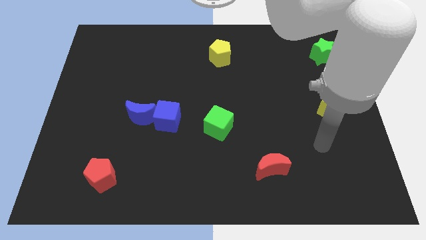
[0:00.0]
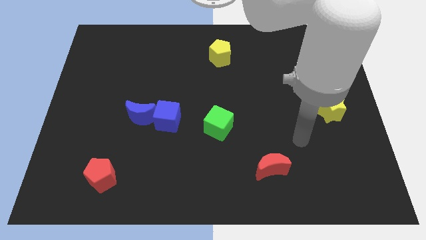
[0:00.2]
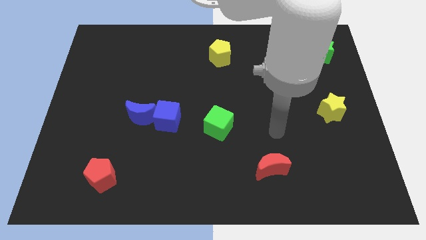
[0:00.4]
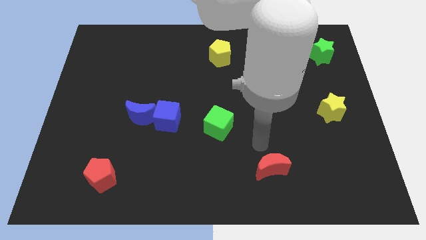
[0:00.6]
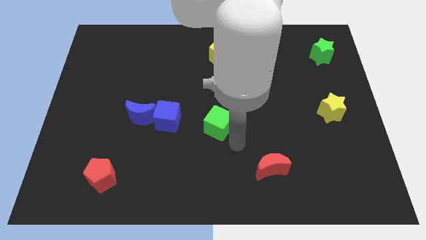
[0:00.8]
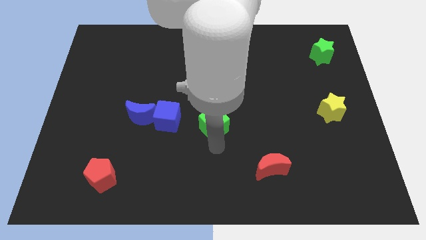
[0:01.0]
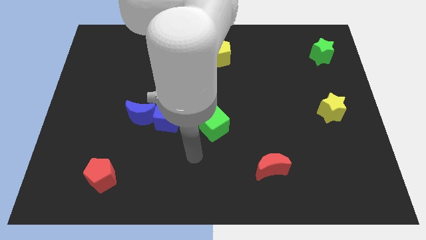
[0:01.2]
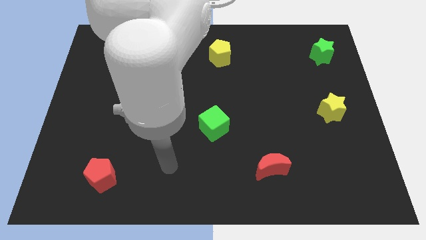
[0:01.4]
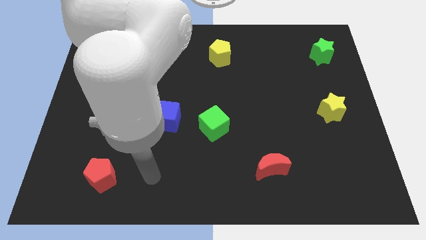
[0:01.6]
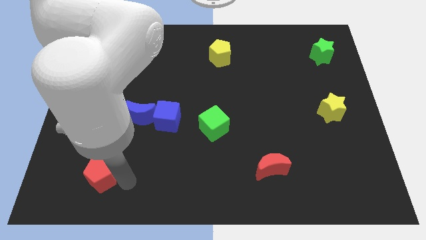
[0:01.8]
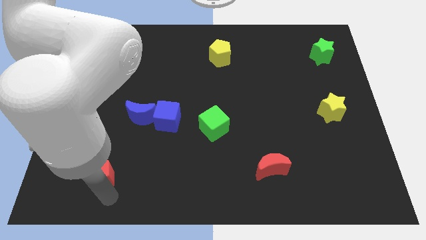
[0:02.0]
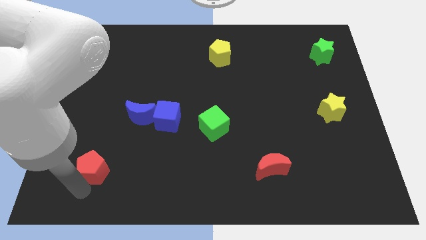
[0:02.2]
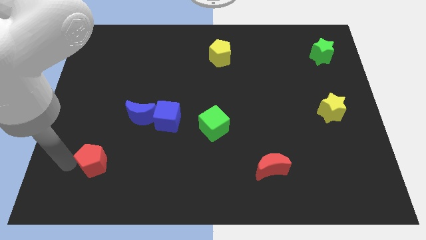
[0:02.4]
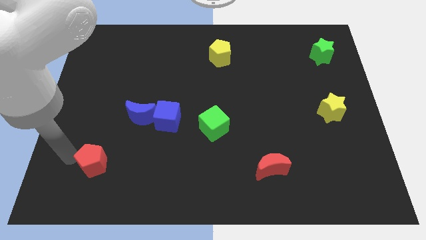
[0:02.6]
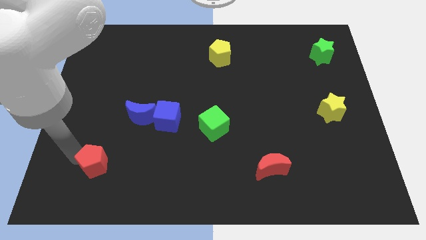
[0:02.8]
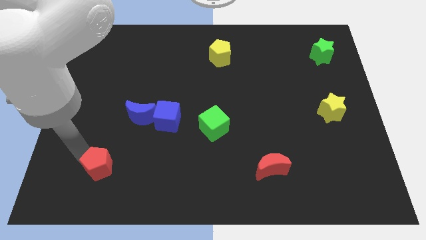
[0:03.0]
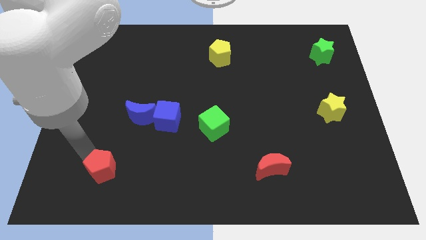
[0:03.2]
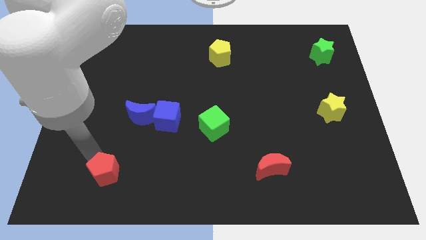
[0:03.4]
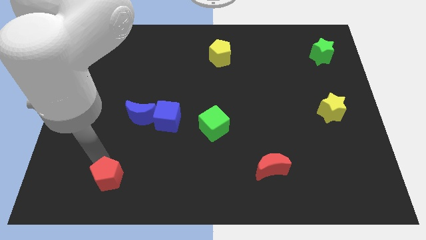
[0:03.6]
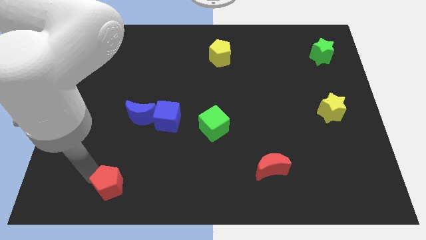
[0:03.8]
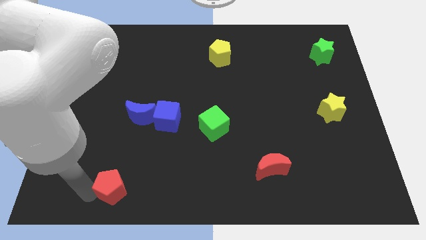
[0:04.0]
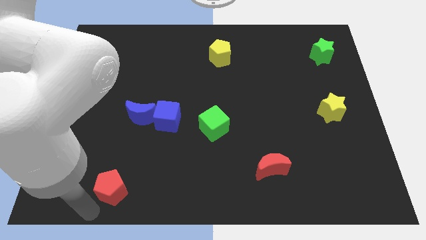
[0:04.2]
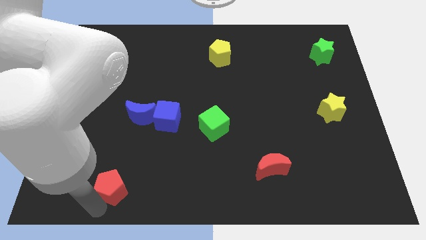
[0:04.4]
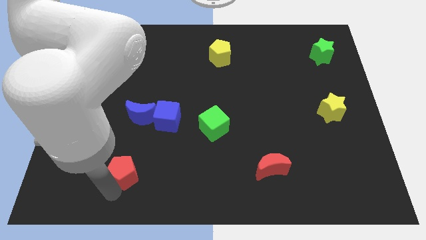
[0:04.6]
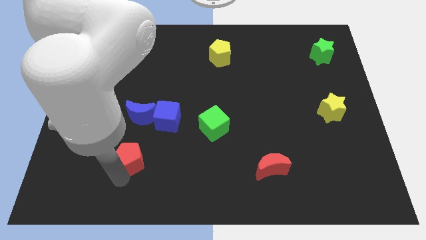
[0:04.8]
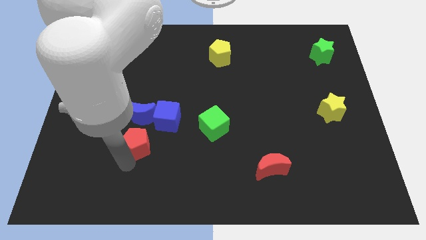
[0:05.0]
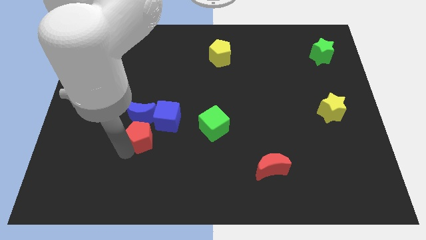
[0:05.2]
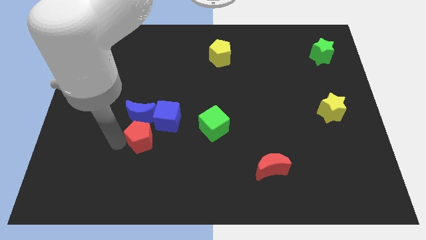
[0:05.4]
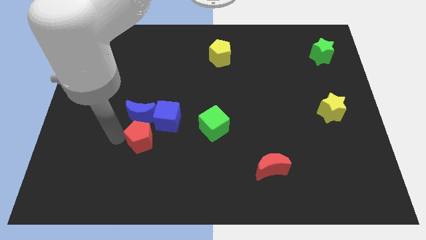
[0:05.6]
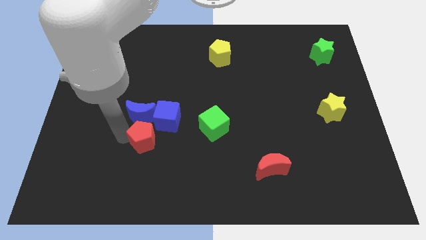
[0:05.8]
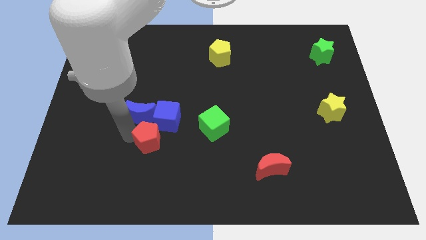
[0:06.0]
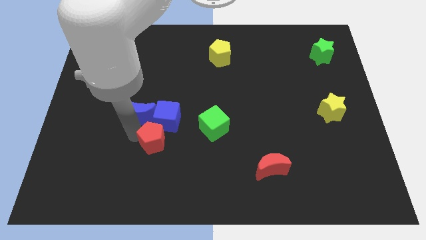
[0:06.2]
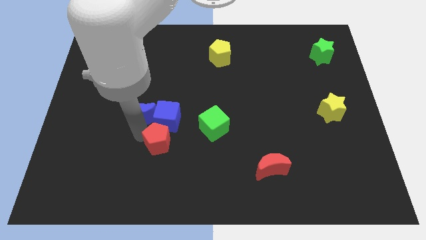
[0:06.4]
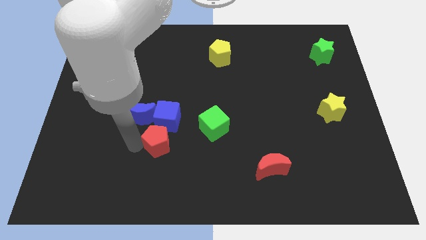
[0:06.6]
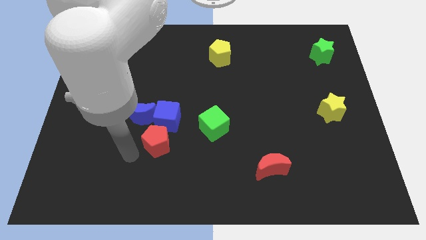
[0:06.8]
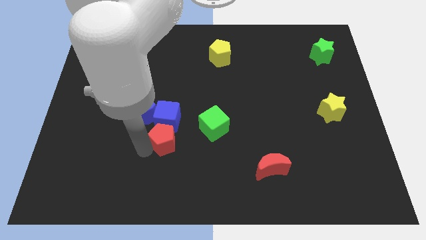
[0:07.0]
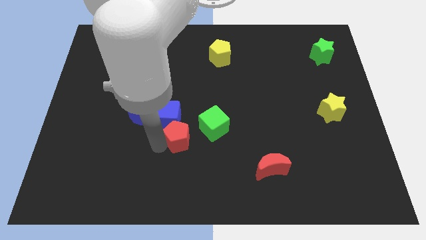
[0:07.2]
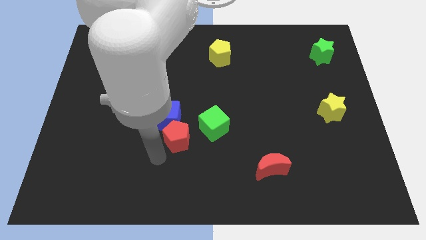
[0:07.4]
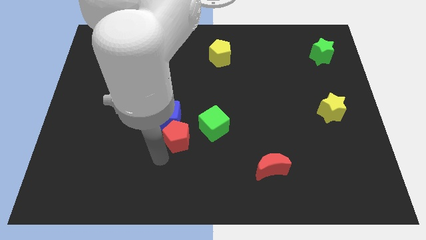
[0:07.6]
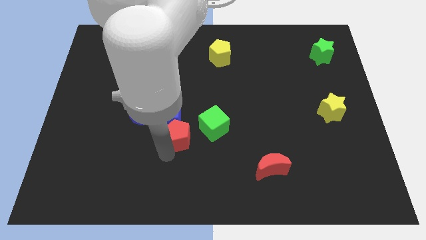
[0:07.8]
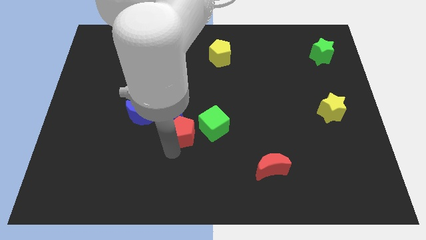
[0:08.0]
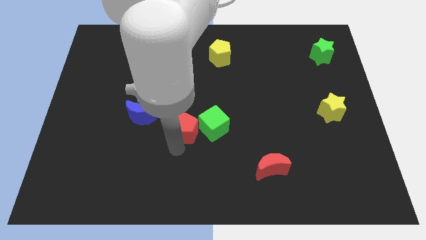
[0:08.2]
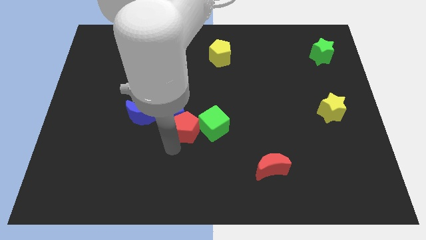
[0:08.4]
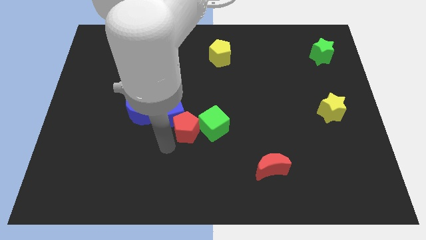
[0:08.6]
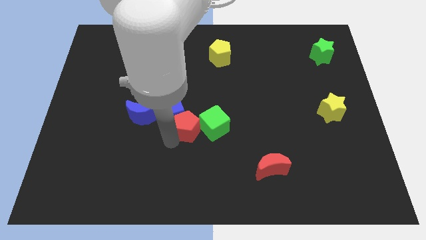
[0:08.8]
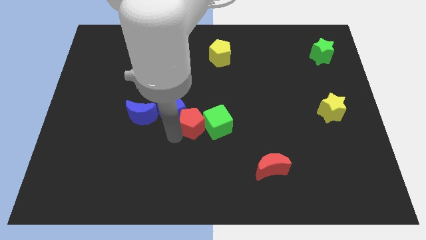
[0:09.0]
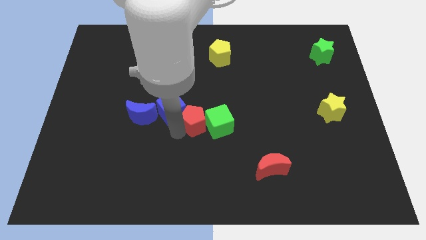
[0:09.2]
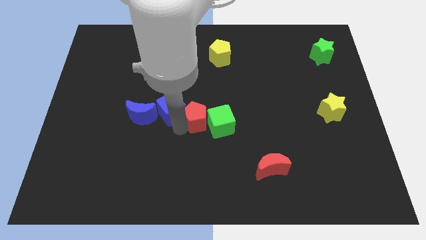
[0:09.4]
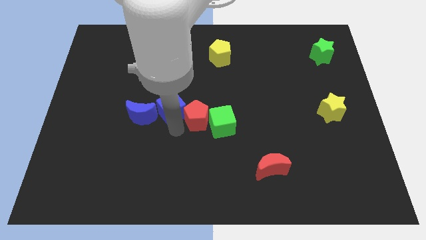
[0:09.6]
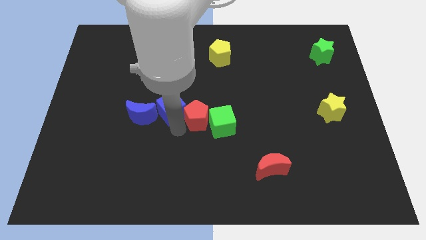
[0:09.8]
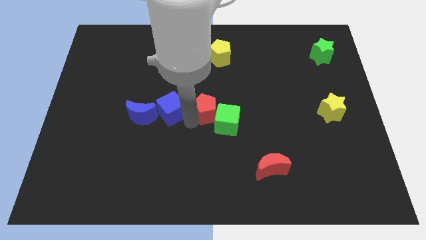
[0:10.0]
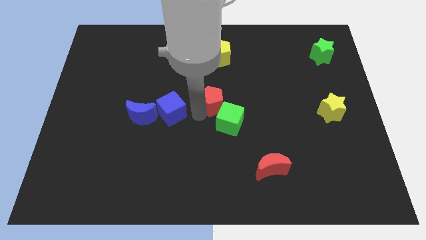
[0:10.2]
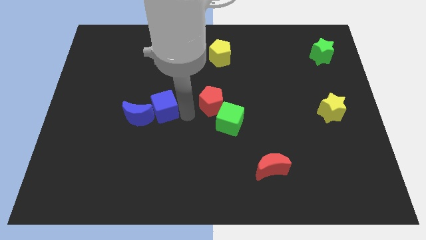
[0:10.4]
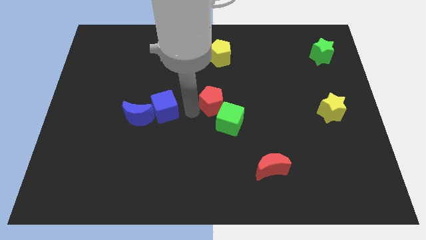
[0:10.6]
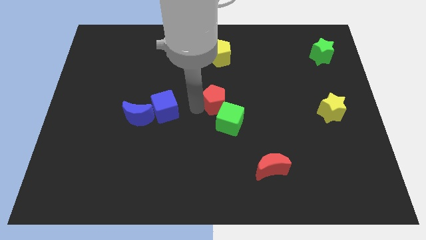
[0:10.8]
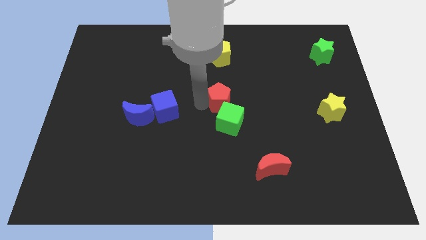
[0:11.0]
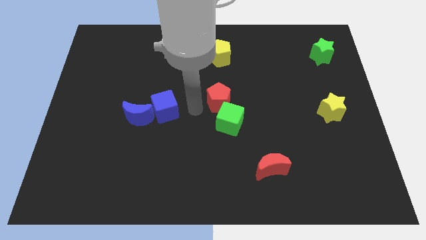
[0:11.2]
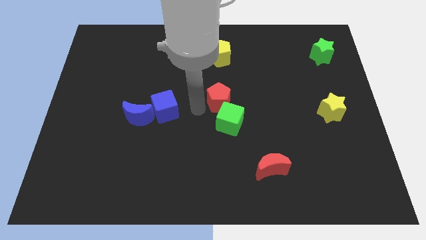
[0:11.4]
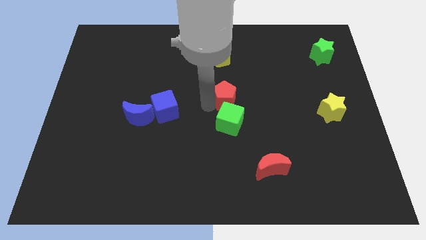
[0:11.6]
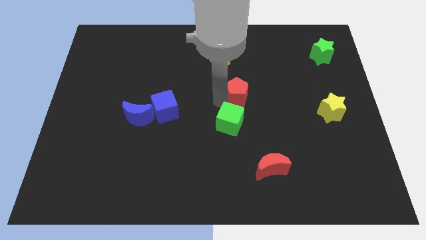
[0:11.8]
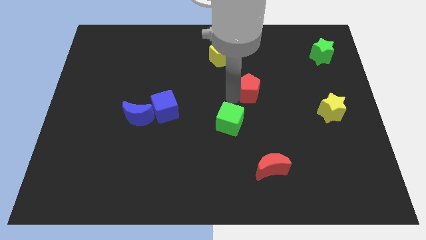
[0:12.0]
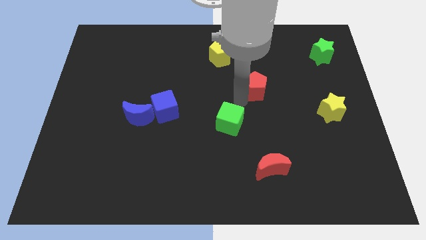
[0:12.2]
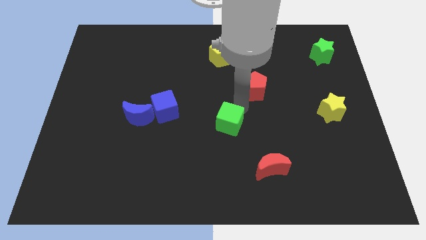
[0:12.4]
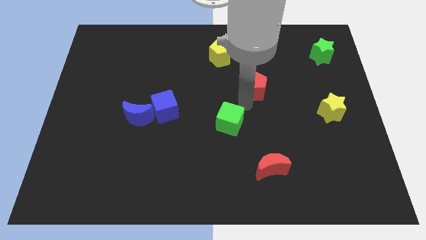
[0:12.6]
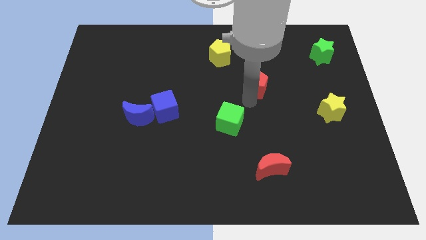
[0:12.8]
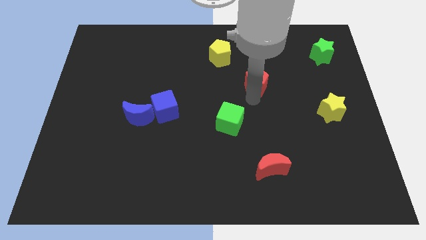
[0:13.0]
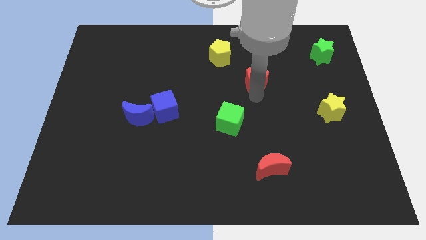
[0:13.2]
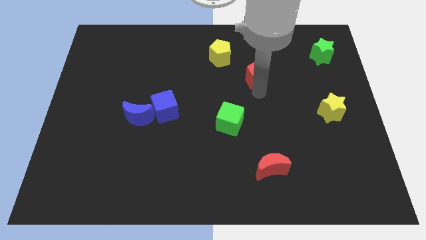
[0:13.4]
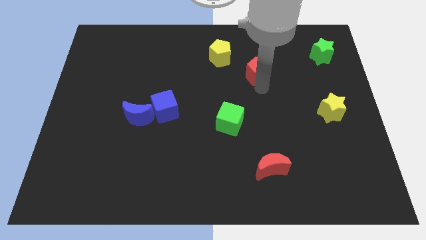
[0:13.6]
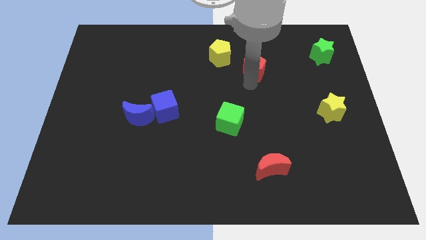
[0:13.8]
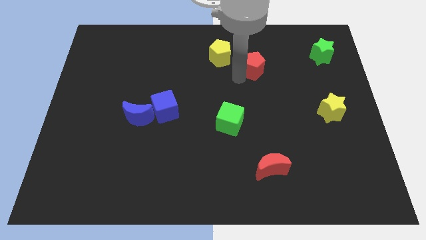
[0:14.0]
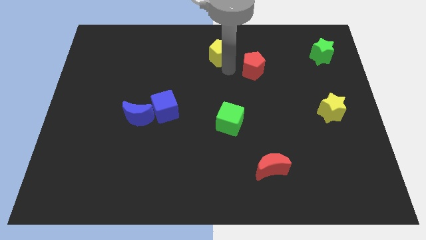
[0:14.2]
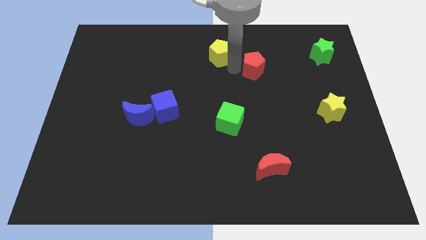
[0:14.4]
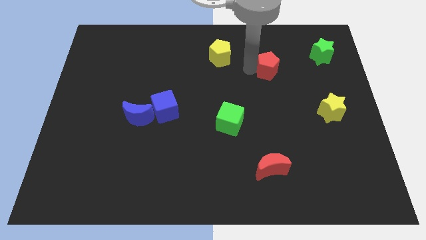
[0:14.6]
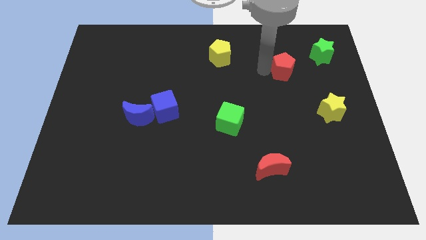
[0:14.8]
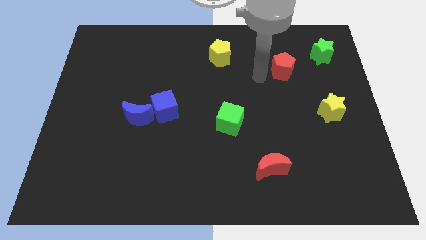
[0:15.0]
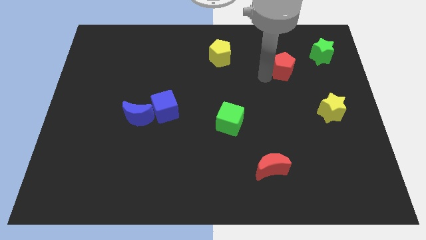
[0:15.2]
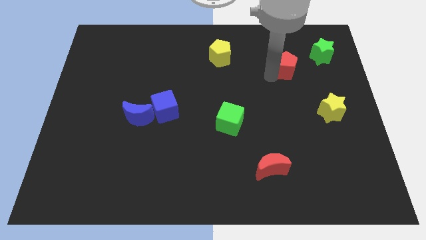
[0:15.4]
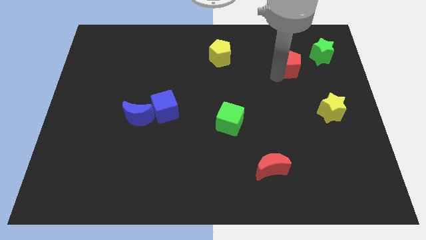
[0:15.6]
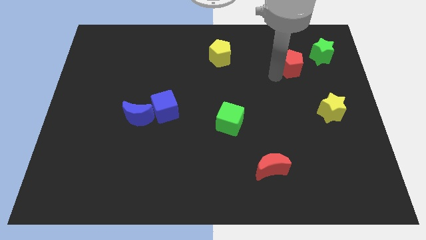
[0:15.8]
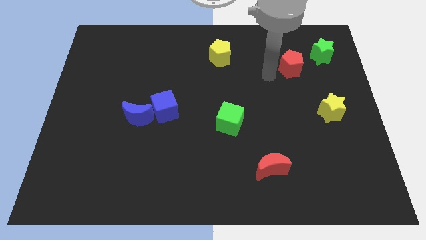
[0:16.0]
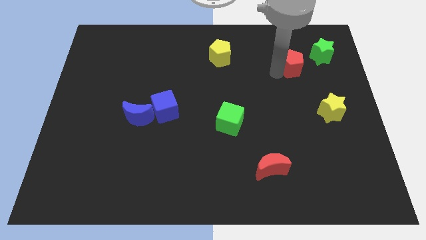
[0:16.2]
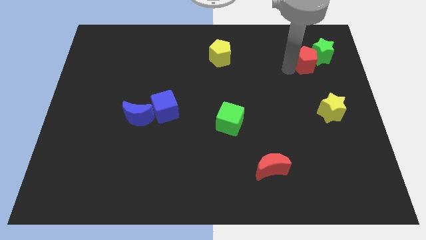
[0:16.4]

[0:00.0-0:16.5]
put the red pentagon towards the green star
